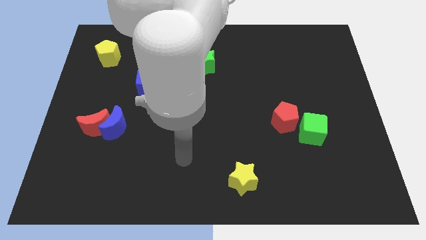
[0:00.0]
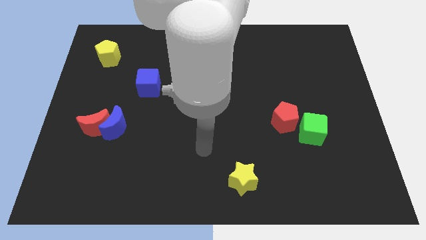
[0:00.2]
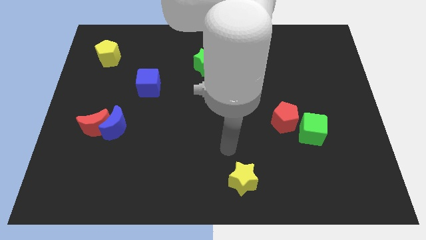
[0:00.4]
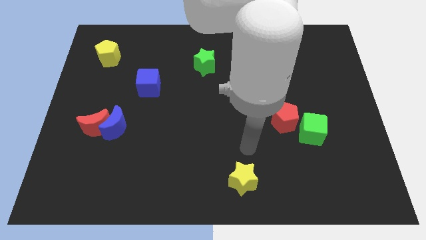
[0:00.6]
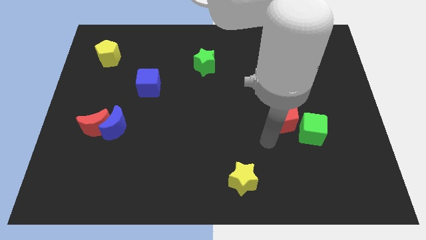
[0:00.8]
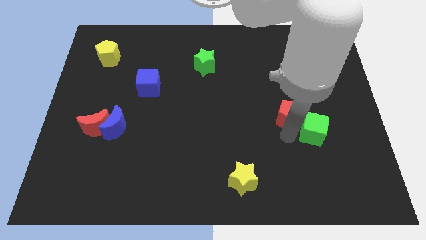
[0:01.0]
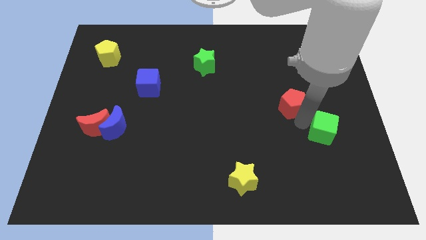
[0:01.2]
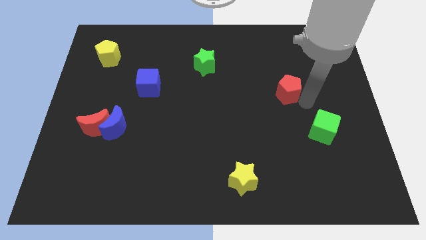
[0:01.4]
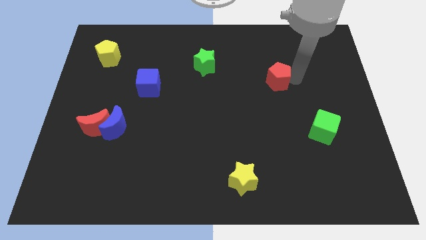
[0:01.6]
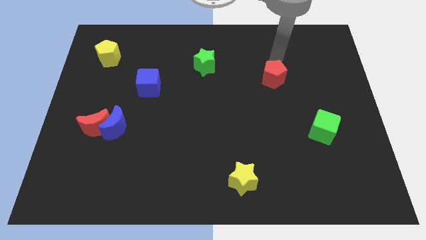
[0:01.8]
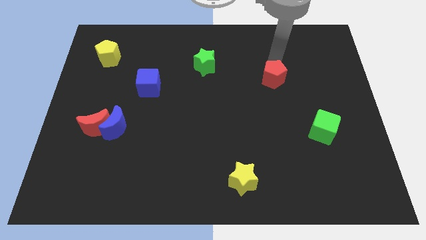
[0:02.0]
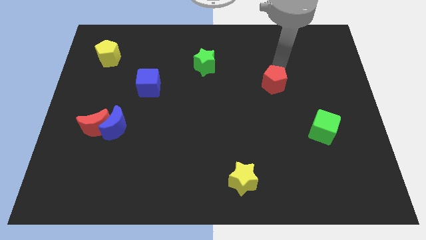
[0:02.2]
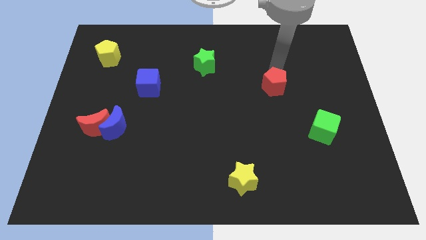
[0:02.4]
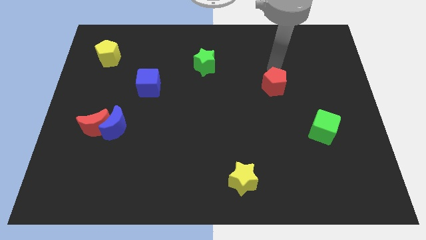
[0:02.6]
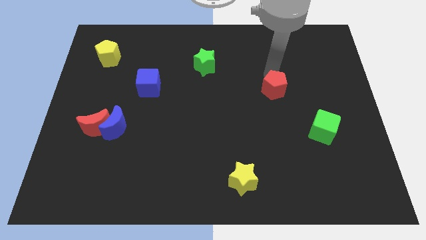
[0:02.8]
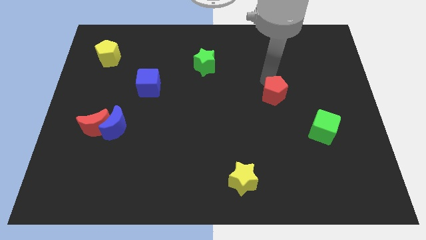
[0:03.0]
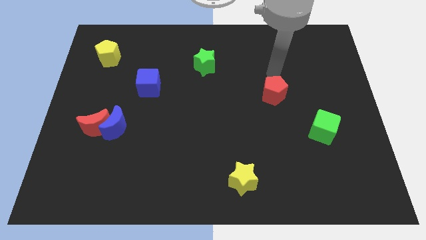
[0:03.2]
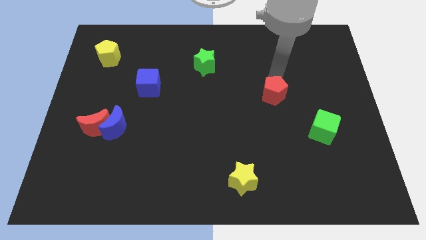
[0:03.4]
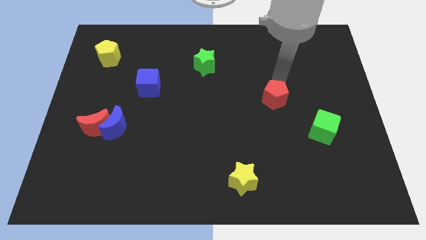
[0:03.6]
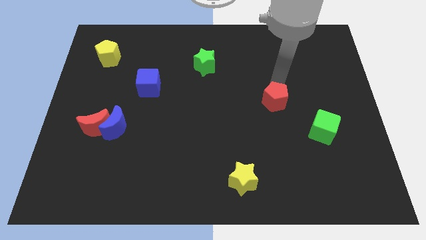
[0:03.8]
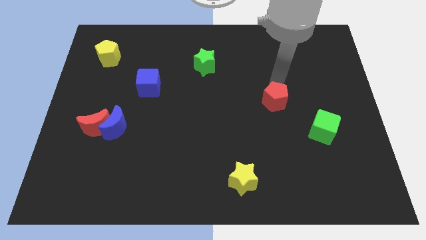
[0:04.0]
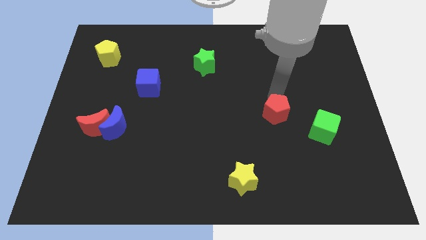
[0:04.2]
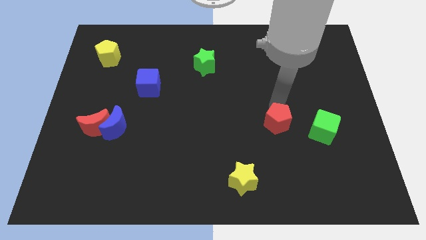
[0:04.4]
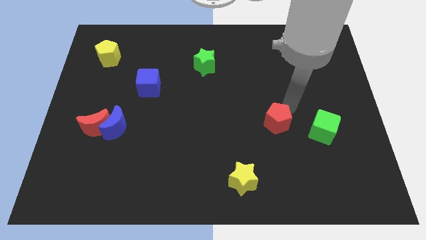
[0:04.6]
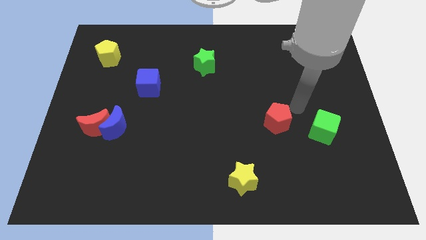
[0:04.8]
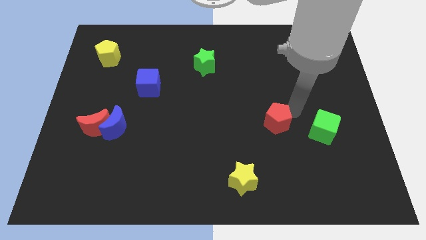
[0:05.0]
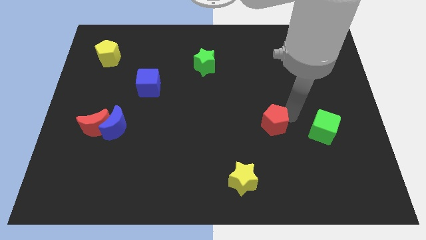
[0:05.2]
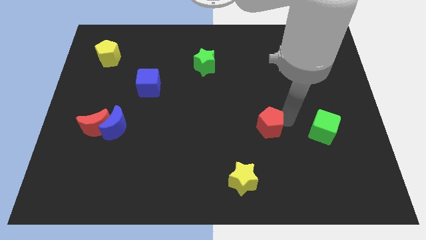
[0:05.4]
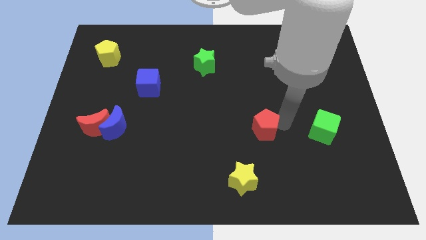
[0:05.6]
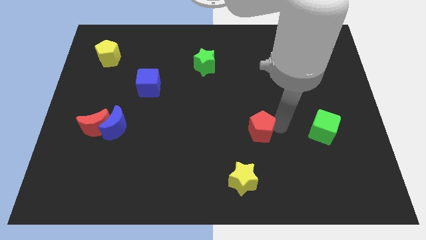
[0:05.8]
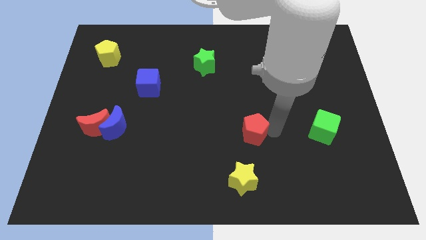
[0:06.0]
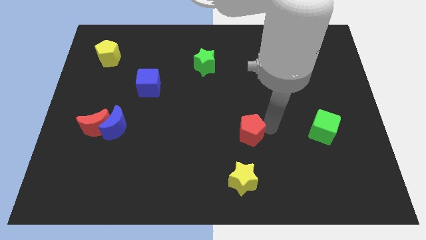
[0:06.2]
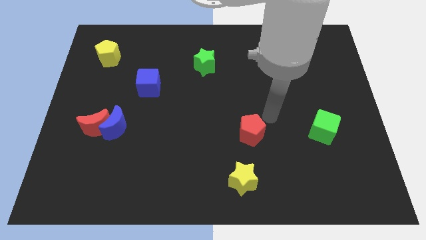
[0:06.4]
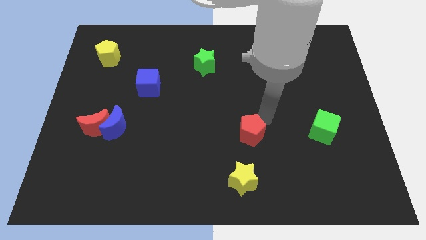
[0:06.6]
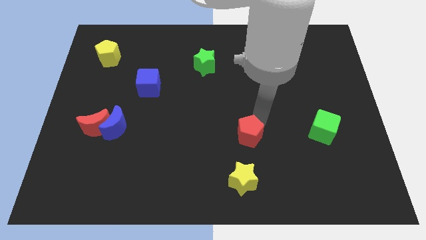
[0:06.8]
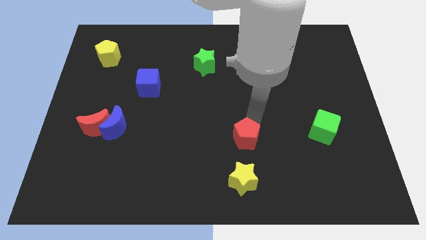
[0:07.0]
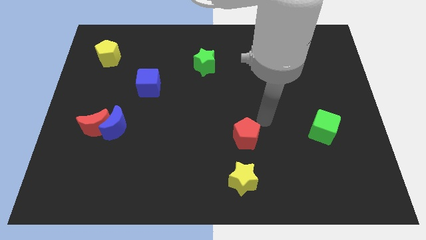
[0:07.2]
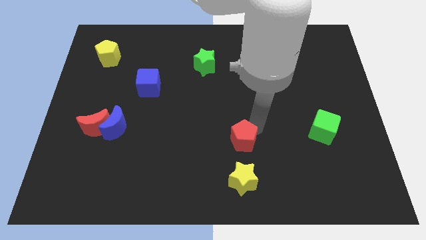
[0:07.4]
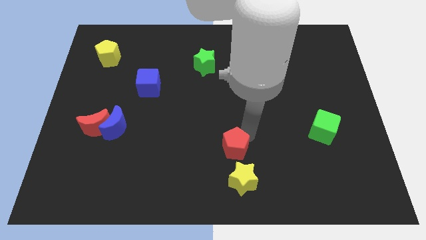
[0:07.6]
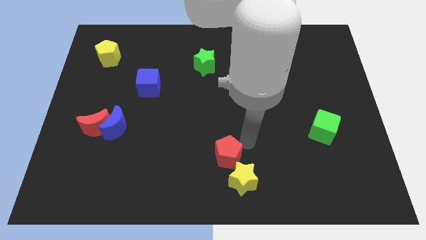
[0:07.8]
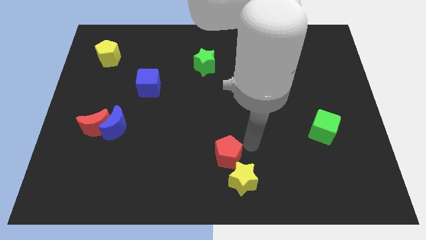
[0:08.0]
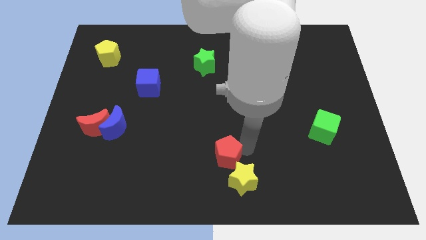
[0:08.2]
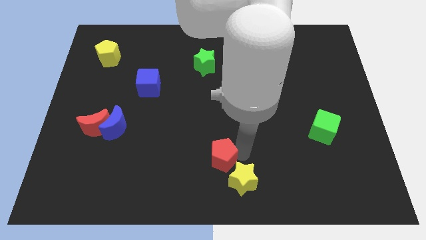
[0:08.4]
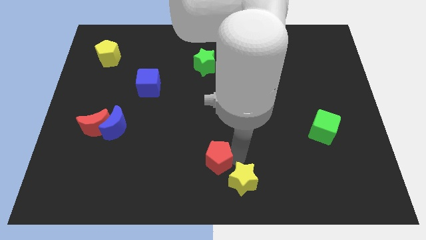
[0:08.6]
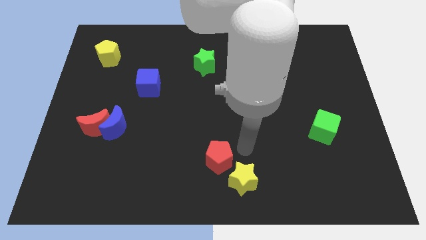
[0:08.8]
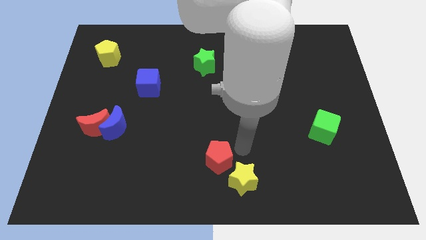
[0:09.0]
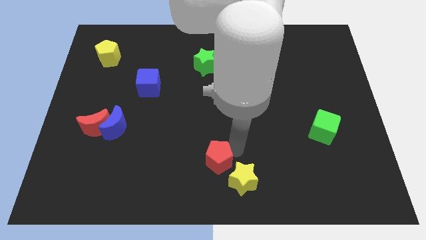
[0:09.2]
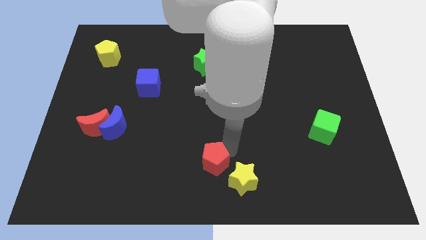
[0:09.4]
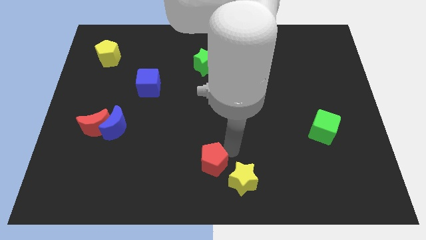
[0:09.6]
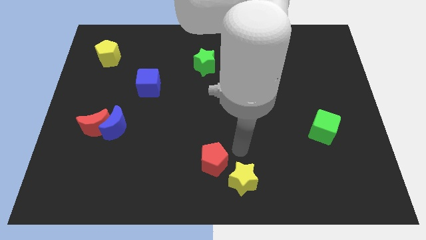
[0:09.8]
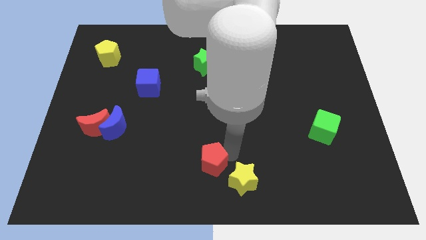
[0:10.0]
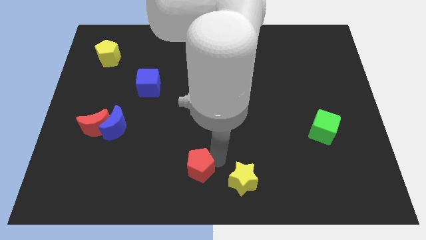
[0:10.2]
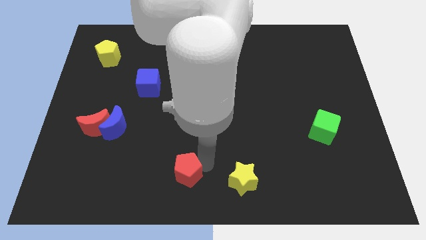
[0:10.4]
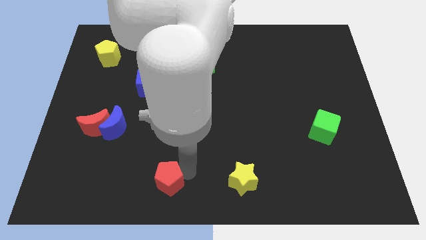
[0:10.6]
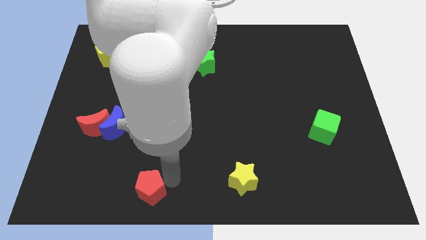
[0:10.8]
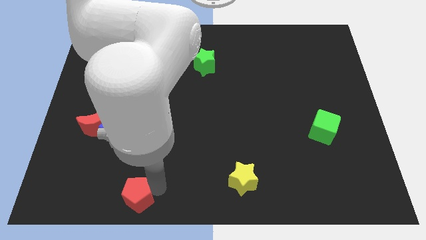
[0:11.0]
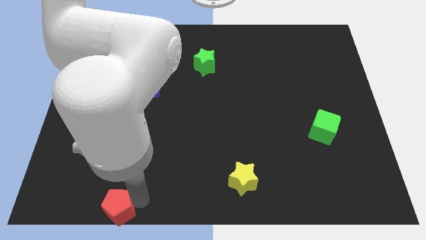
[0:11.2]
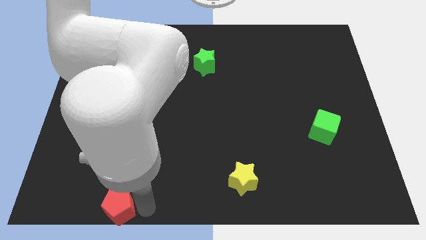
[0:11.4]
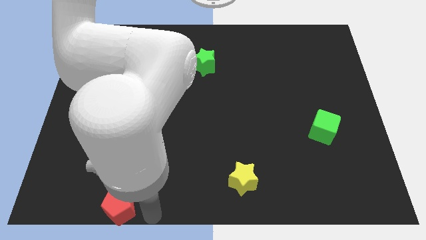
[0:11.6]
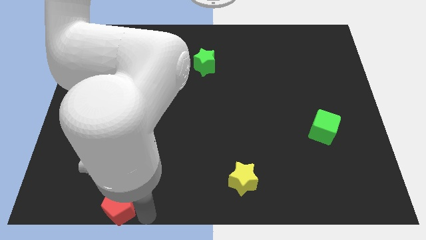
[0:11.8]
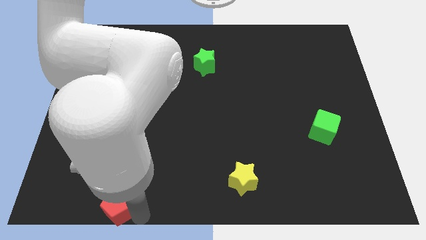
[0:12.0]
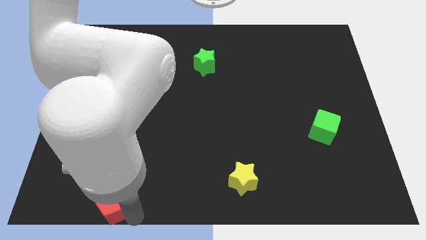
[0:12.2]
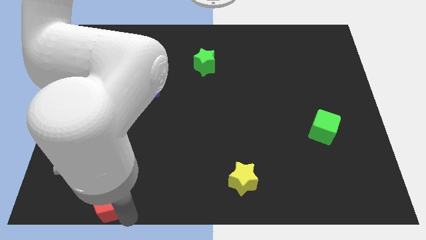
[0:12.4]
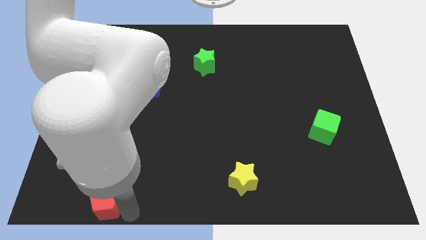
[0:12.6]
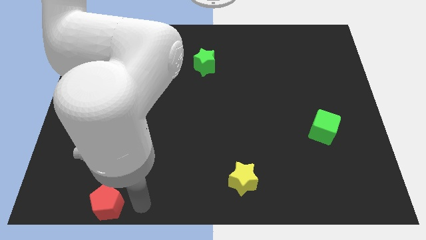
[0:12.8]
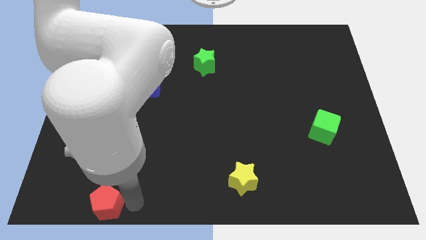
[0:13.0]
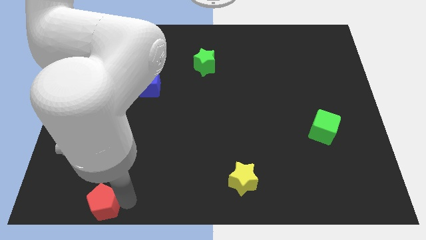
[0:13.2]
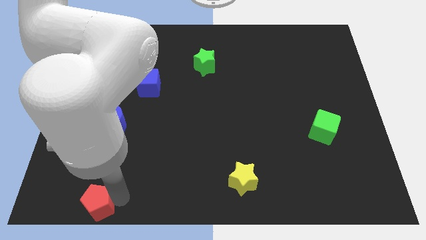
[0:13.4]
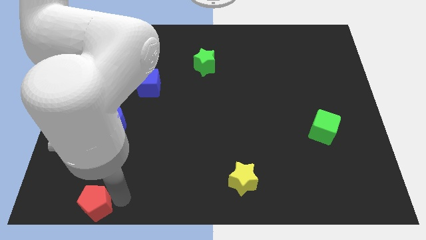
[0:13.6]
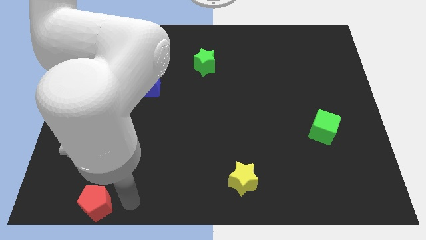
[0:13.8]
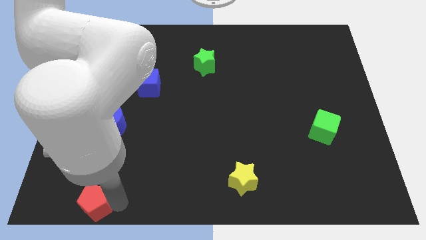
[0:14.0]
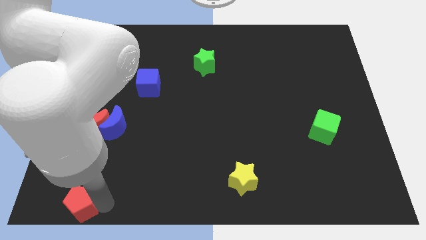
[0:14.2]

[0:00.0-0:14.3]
move the red pentagon to the bottom left of the board
